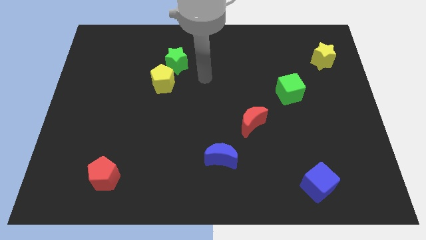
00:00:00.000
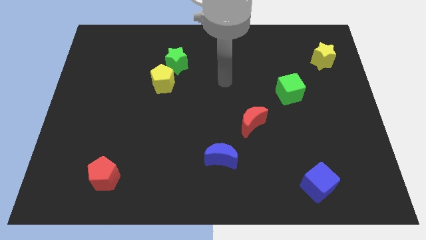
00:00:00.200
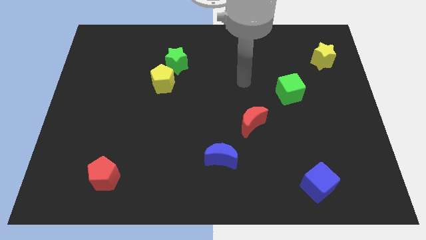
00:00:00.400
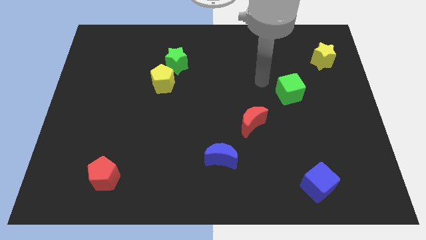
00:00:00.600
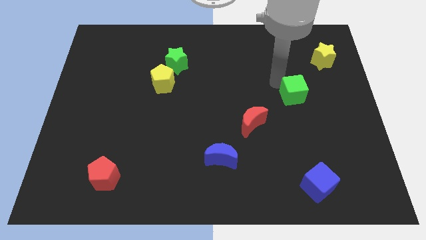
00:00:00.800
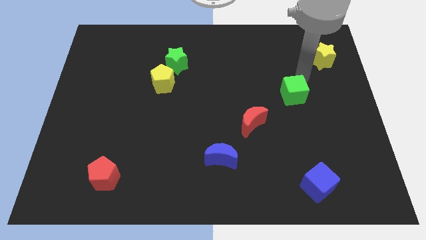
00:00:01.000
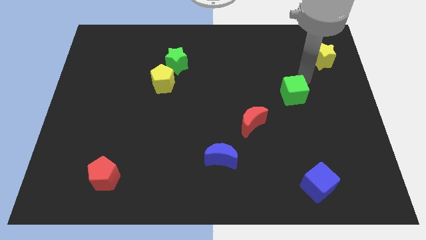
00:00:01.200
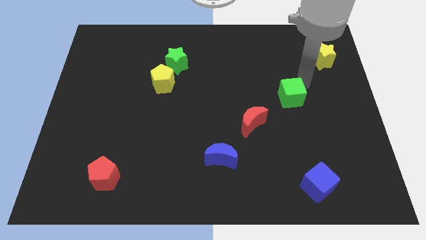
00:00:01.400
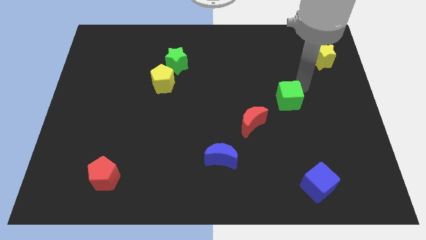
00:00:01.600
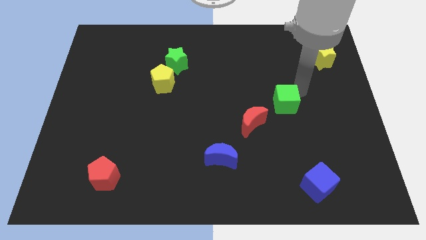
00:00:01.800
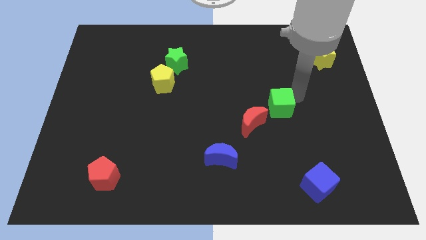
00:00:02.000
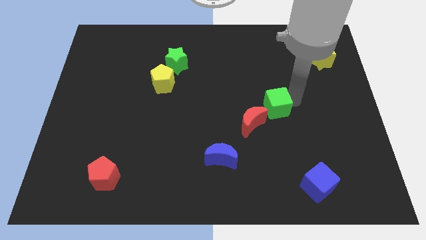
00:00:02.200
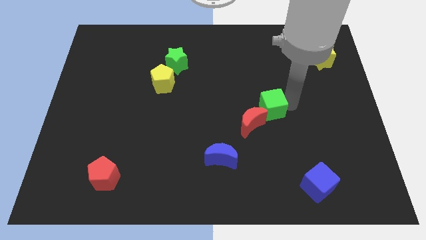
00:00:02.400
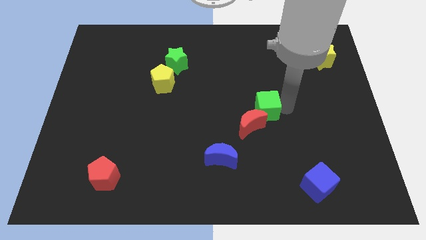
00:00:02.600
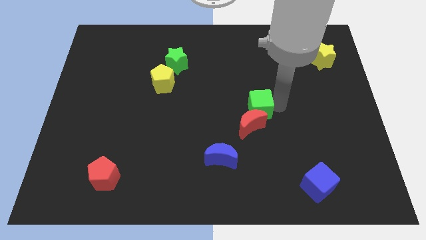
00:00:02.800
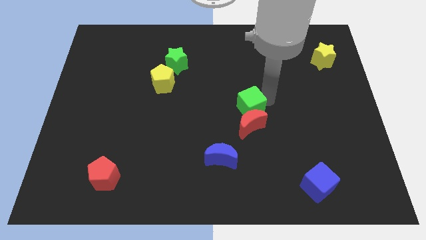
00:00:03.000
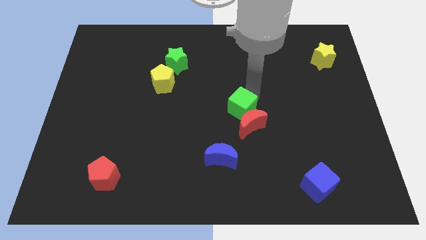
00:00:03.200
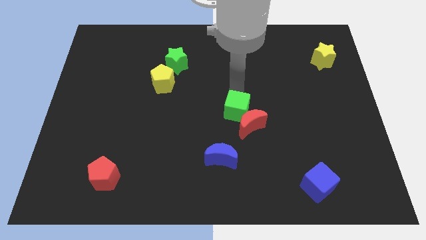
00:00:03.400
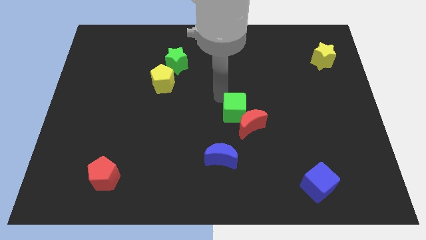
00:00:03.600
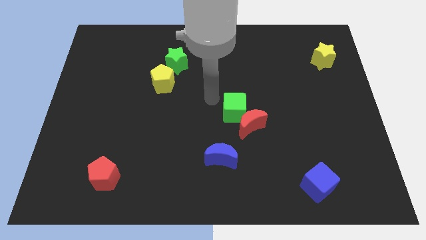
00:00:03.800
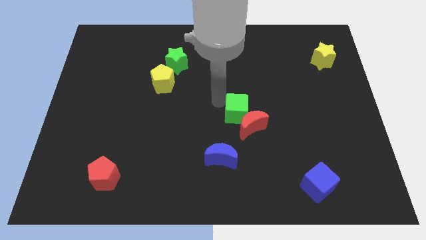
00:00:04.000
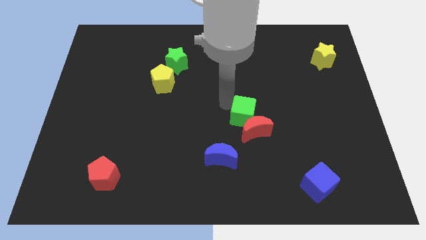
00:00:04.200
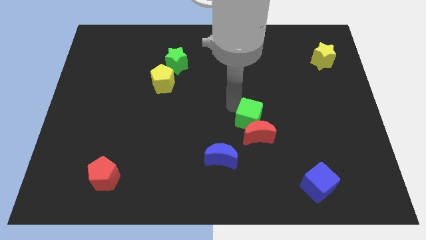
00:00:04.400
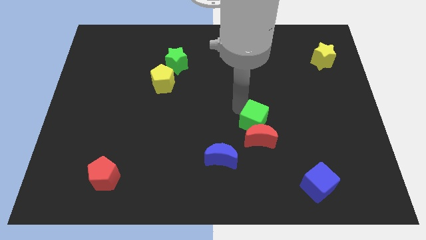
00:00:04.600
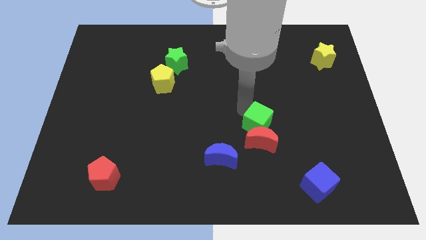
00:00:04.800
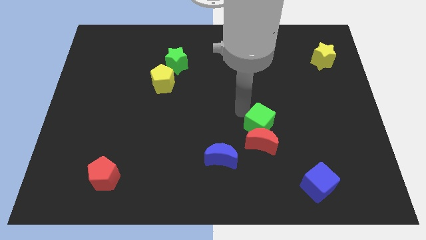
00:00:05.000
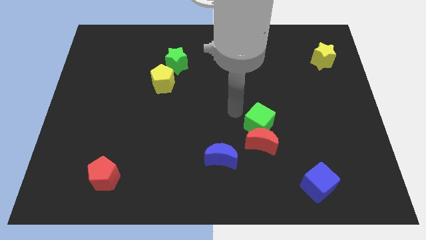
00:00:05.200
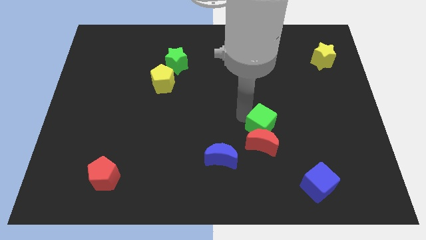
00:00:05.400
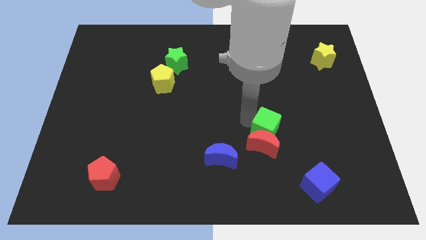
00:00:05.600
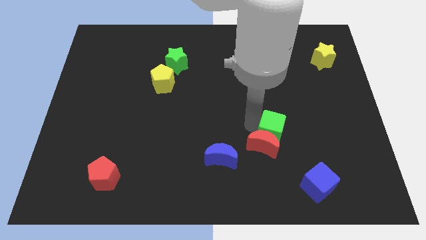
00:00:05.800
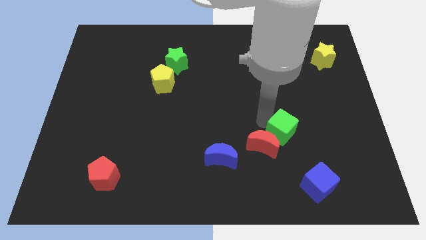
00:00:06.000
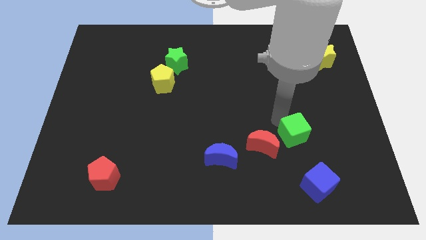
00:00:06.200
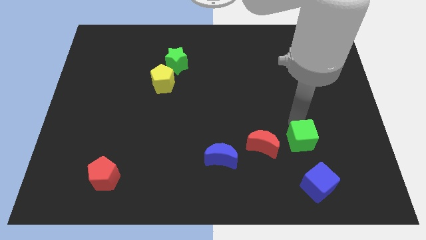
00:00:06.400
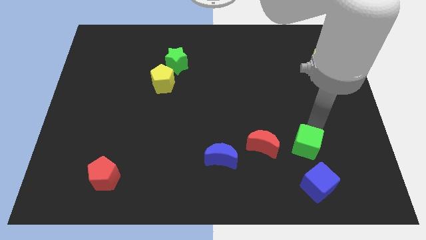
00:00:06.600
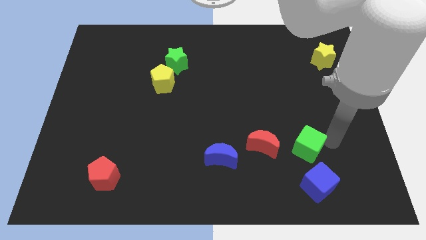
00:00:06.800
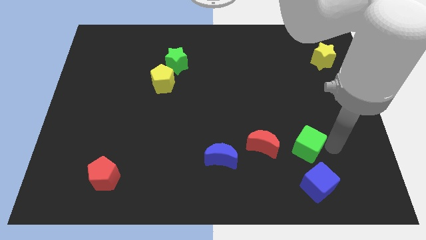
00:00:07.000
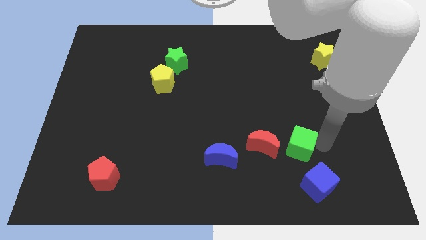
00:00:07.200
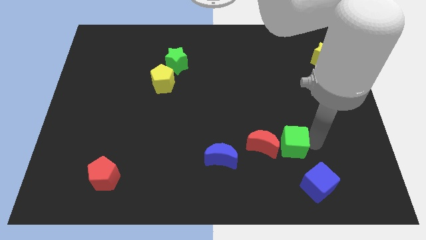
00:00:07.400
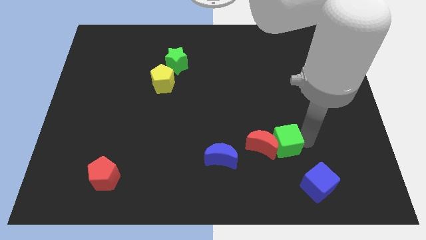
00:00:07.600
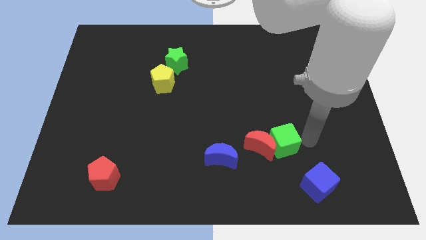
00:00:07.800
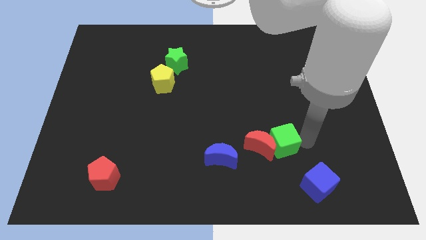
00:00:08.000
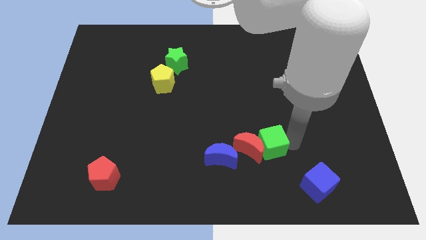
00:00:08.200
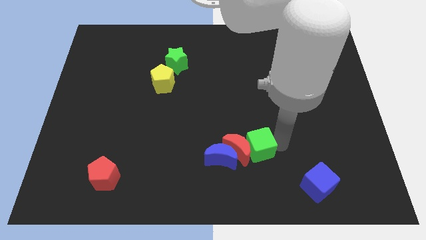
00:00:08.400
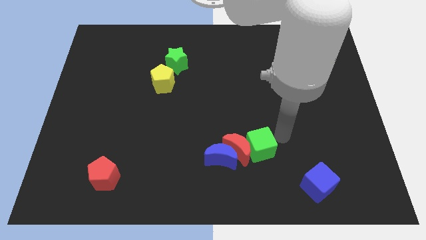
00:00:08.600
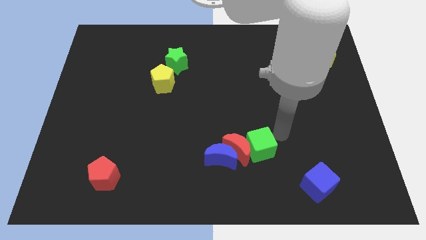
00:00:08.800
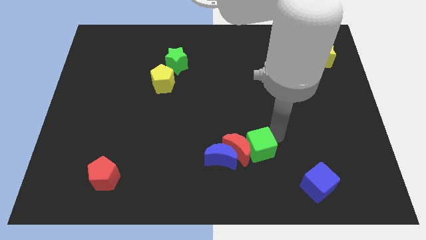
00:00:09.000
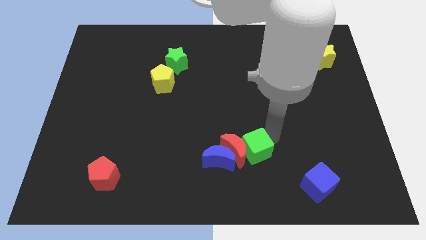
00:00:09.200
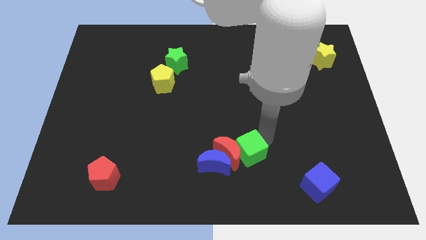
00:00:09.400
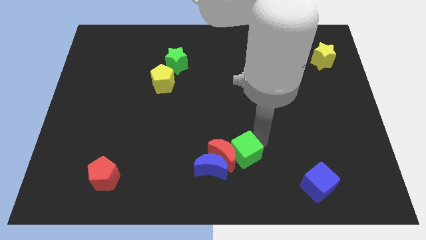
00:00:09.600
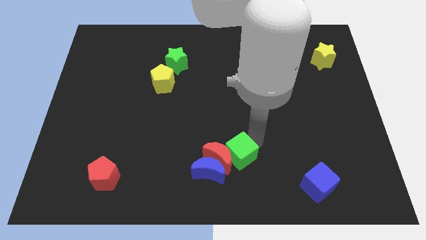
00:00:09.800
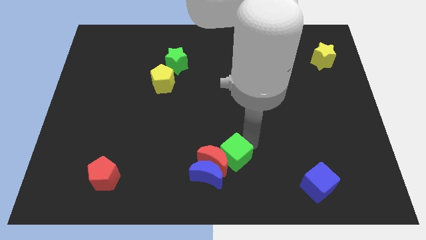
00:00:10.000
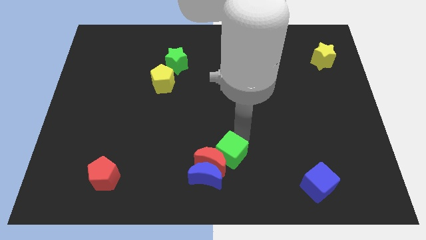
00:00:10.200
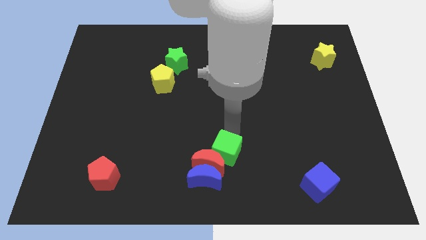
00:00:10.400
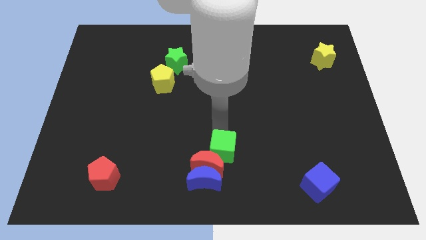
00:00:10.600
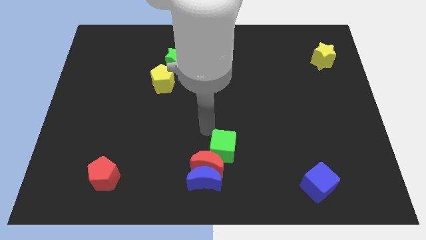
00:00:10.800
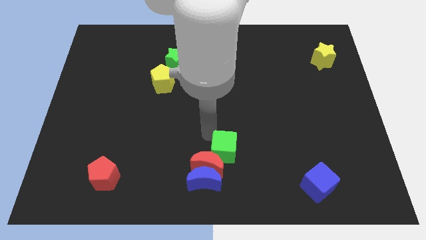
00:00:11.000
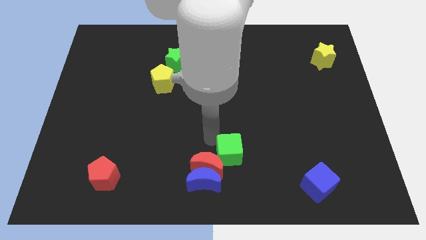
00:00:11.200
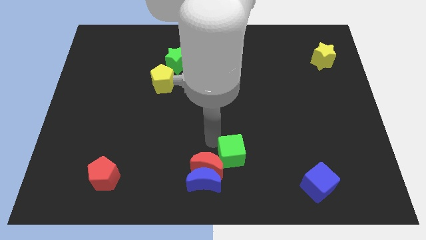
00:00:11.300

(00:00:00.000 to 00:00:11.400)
slide the green cube to the bottom side

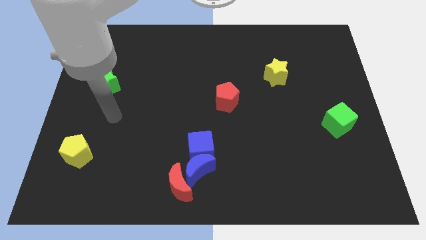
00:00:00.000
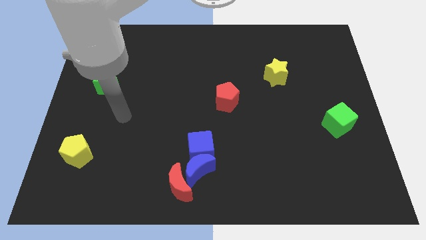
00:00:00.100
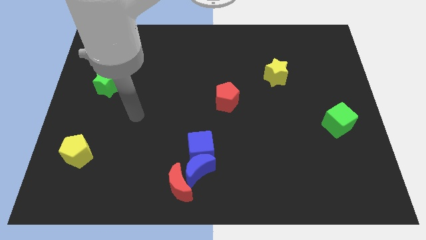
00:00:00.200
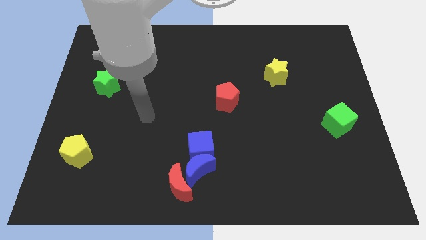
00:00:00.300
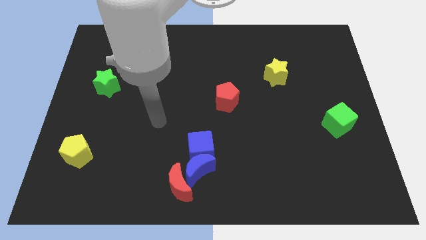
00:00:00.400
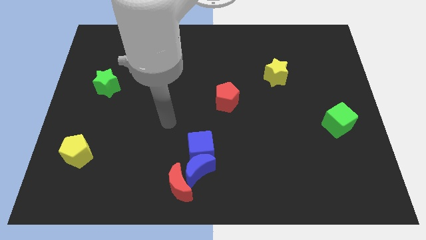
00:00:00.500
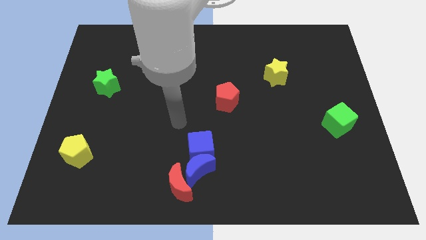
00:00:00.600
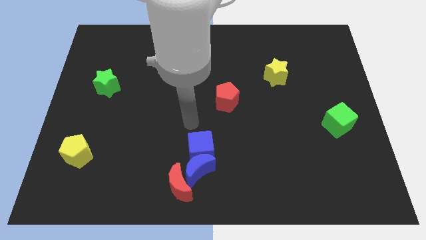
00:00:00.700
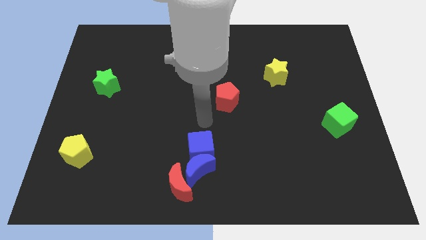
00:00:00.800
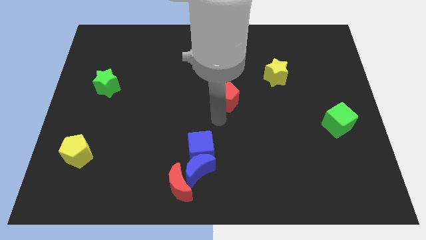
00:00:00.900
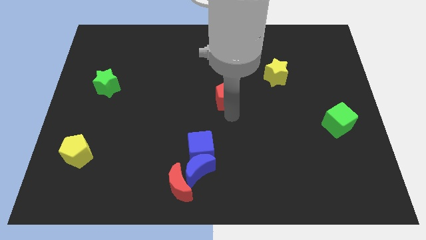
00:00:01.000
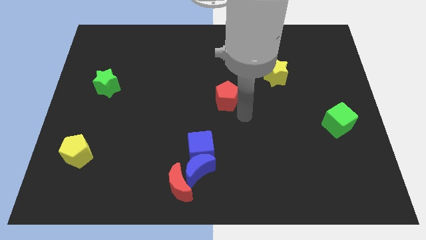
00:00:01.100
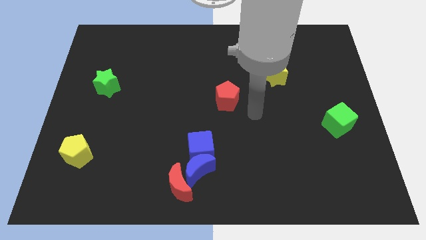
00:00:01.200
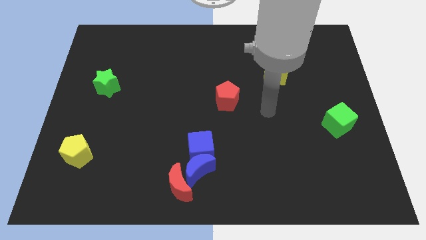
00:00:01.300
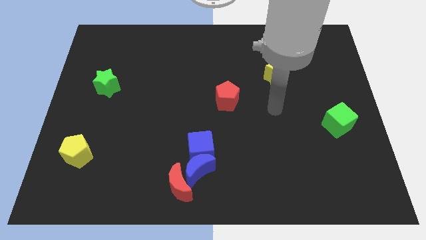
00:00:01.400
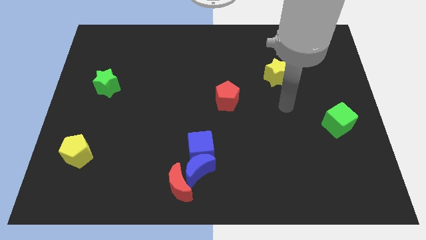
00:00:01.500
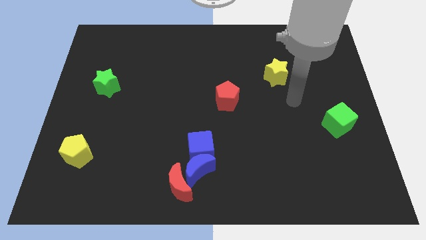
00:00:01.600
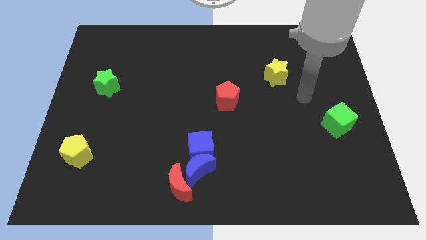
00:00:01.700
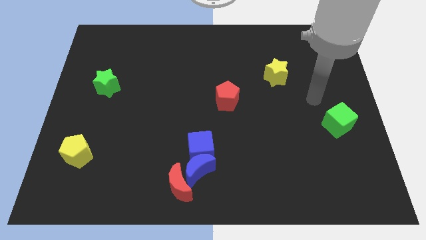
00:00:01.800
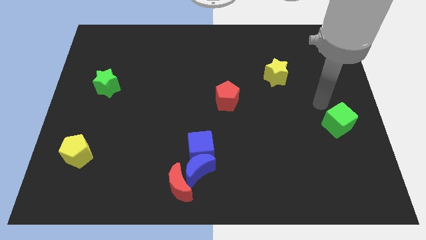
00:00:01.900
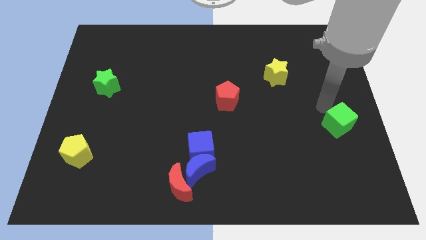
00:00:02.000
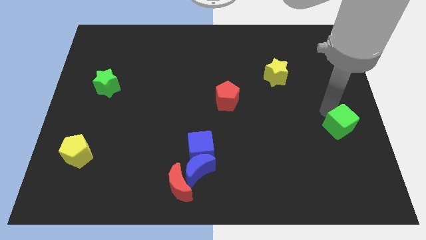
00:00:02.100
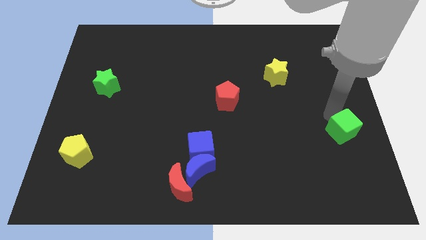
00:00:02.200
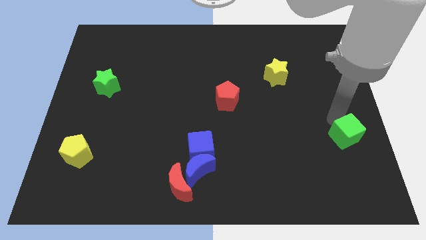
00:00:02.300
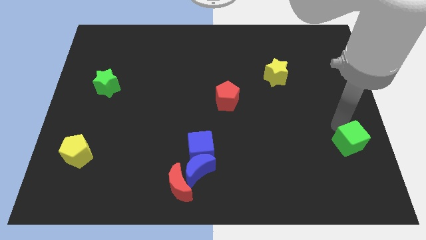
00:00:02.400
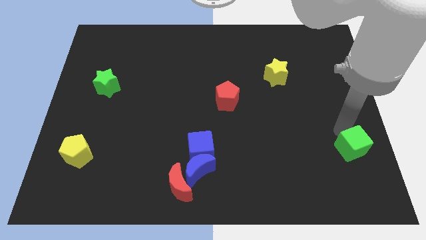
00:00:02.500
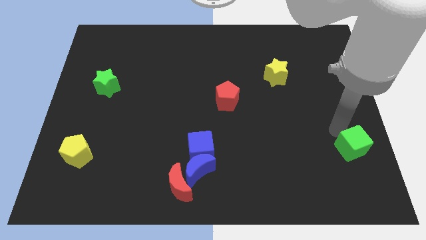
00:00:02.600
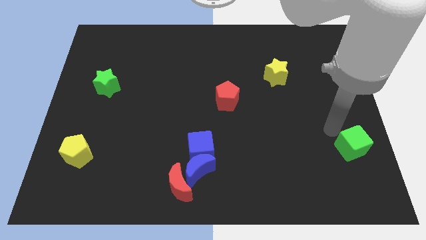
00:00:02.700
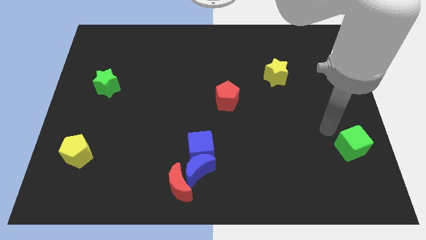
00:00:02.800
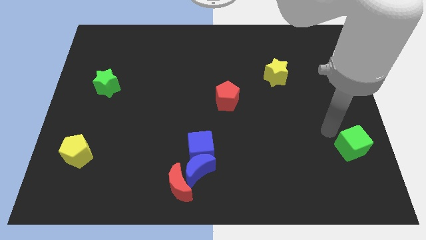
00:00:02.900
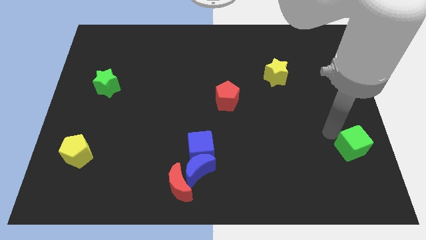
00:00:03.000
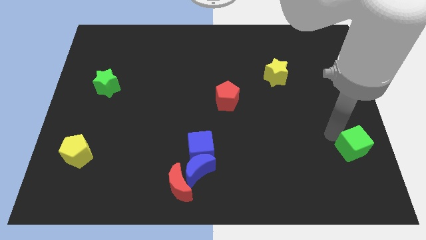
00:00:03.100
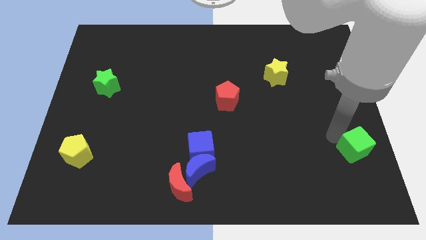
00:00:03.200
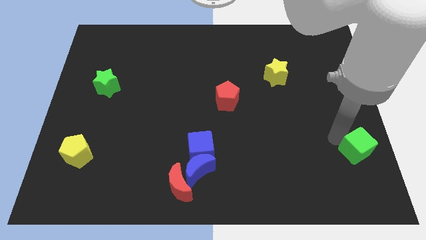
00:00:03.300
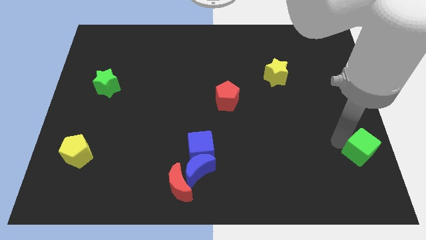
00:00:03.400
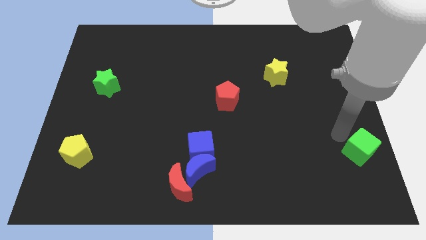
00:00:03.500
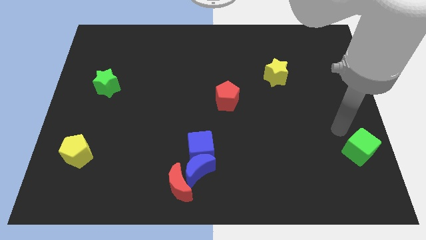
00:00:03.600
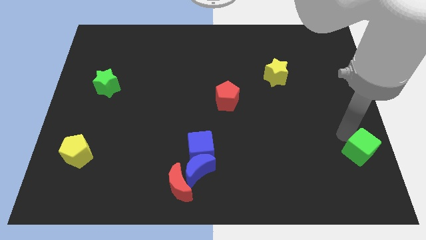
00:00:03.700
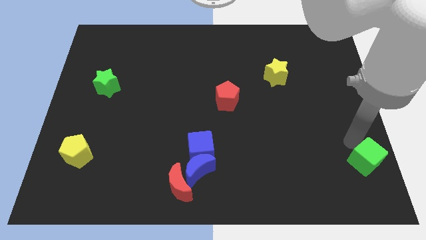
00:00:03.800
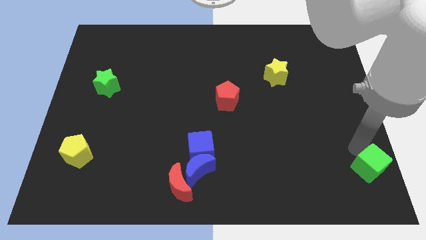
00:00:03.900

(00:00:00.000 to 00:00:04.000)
slide the green cube to the bottom right of the board
